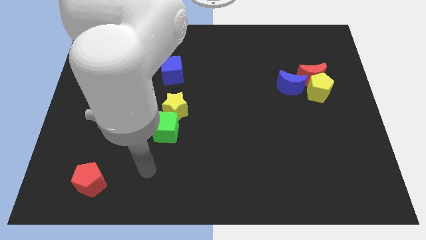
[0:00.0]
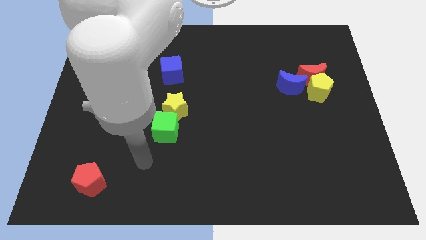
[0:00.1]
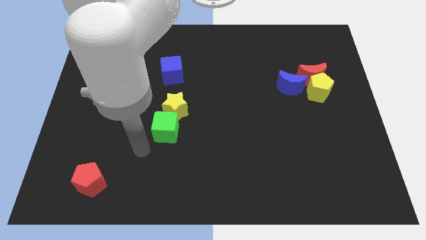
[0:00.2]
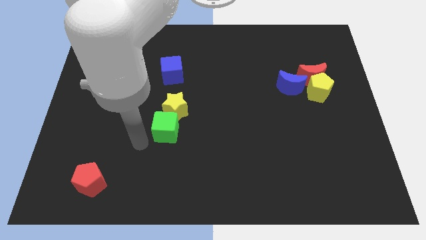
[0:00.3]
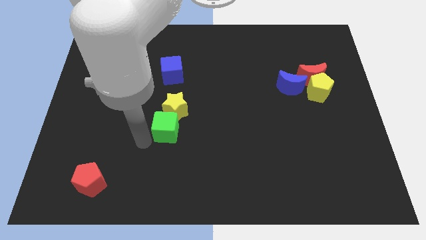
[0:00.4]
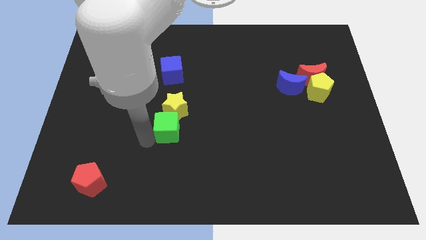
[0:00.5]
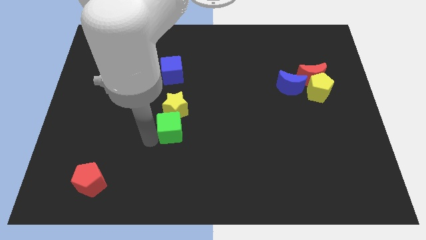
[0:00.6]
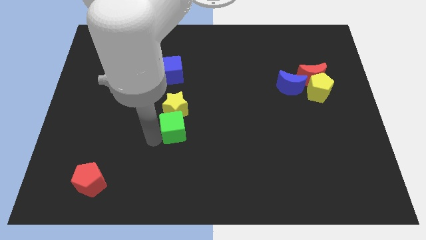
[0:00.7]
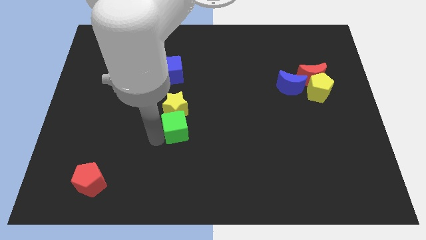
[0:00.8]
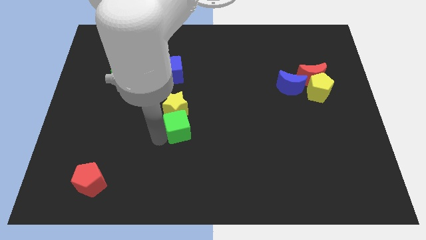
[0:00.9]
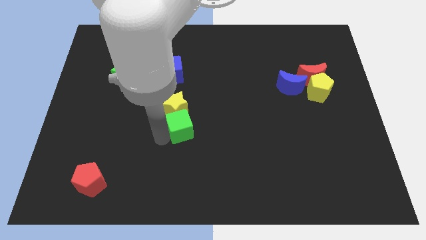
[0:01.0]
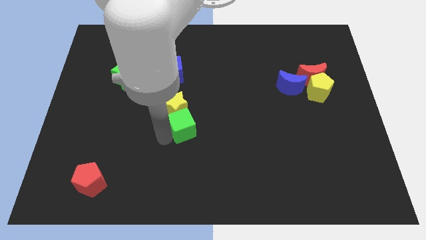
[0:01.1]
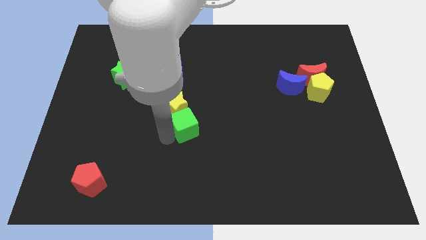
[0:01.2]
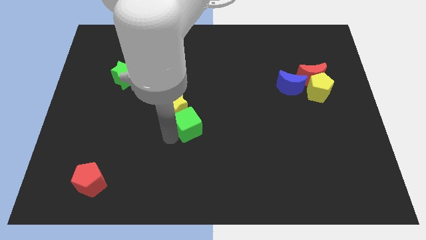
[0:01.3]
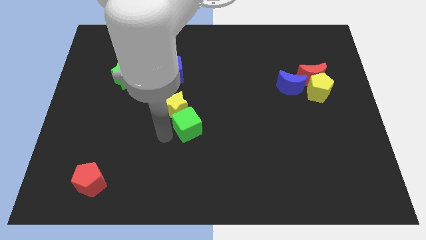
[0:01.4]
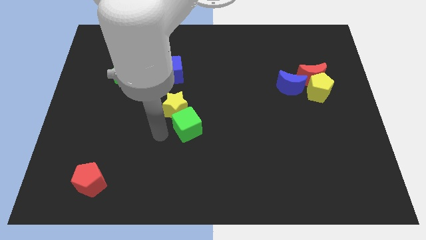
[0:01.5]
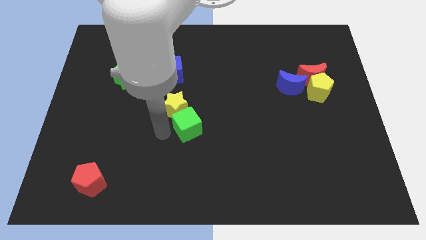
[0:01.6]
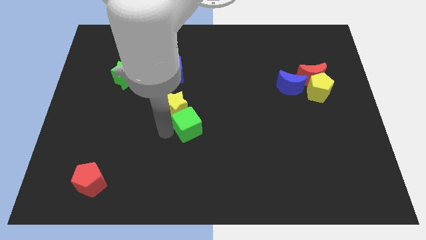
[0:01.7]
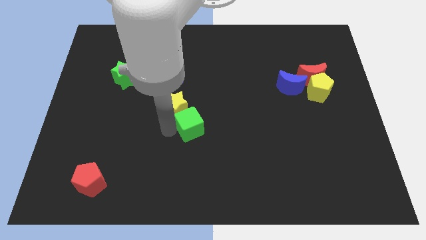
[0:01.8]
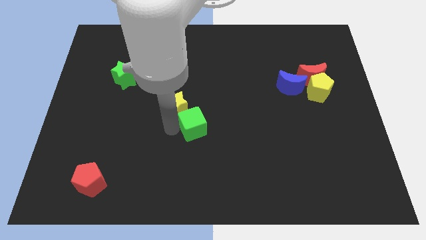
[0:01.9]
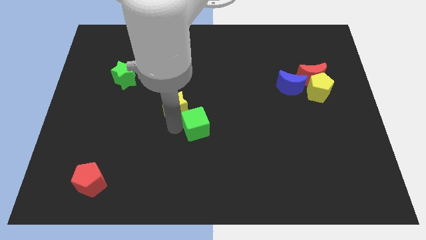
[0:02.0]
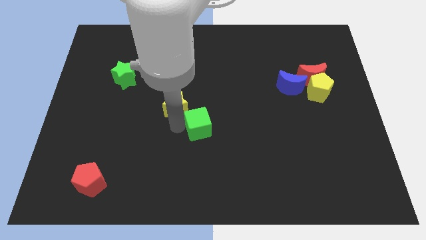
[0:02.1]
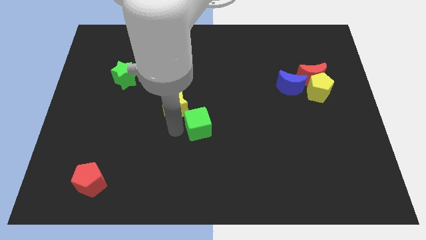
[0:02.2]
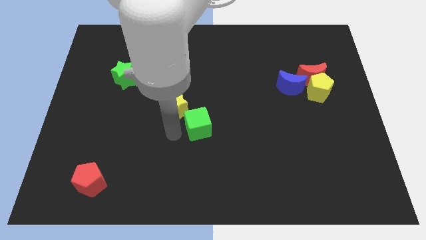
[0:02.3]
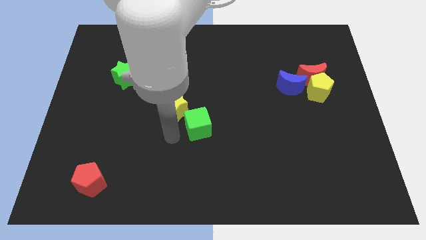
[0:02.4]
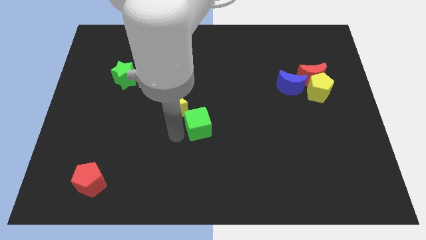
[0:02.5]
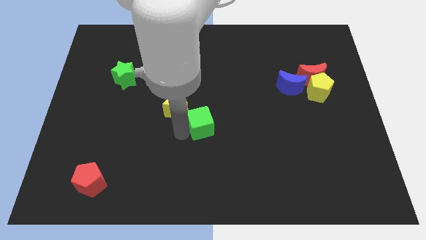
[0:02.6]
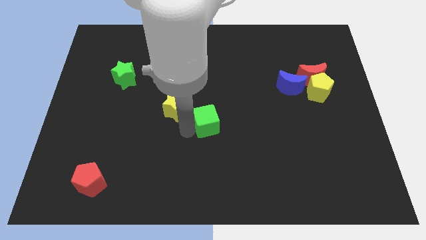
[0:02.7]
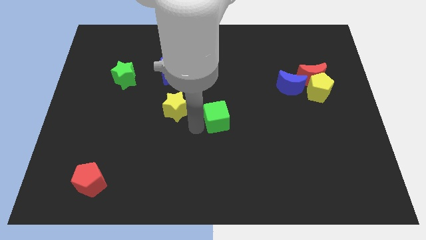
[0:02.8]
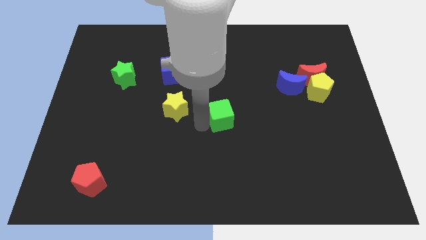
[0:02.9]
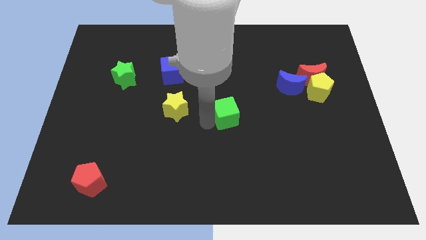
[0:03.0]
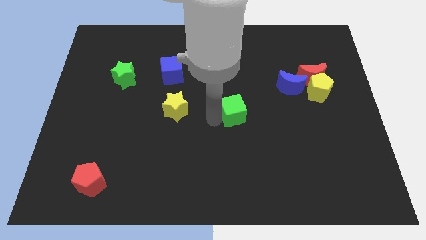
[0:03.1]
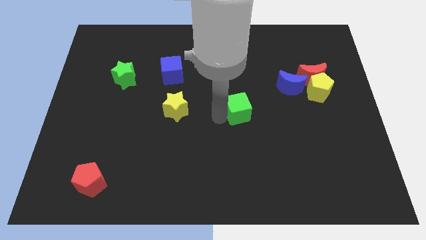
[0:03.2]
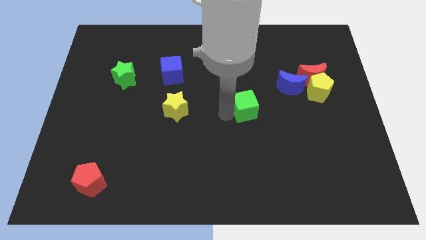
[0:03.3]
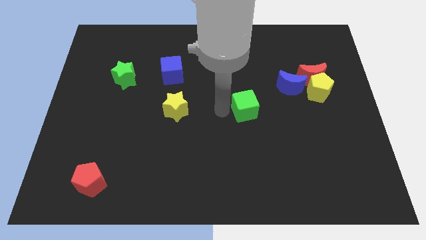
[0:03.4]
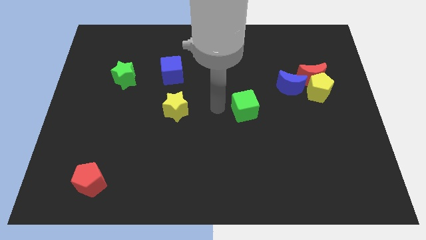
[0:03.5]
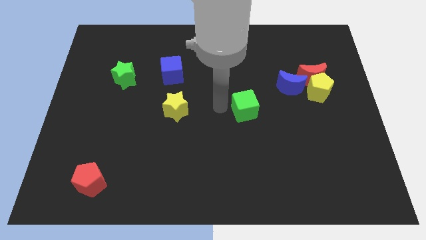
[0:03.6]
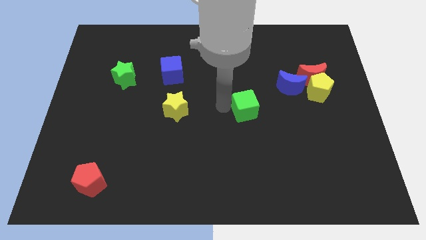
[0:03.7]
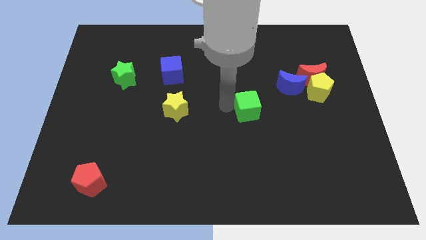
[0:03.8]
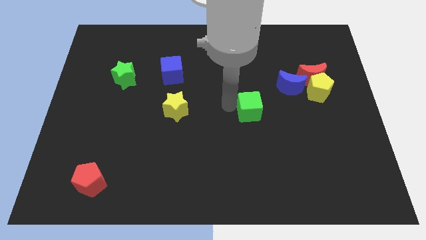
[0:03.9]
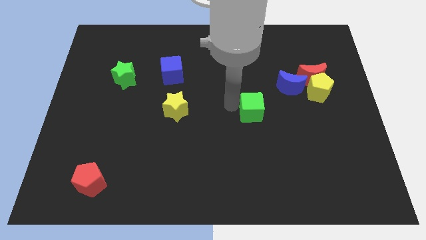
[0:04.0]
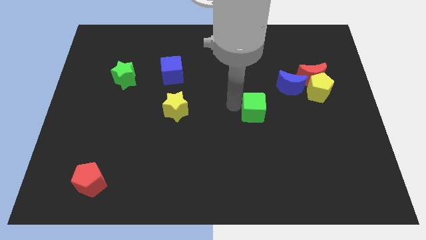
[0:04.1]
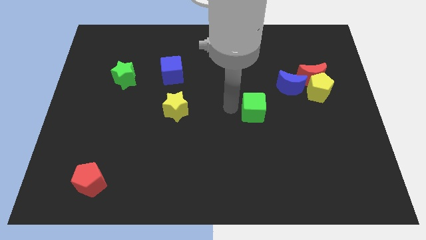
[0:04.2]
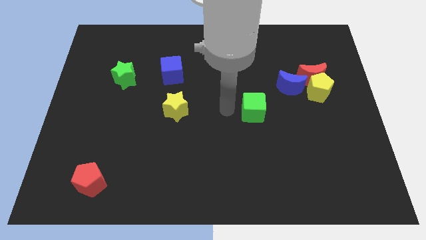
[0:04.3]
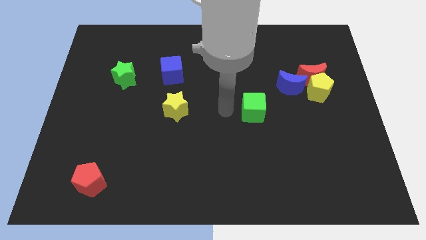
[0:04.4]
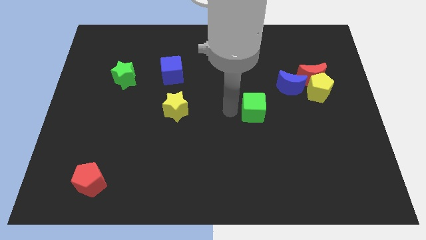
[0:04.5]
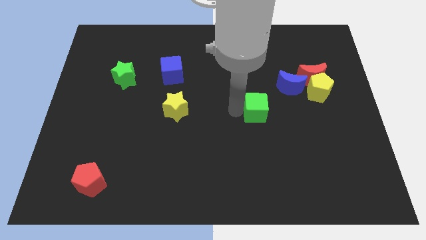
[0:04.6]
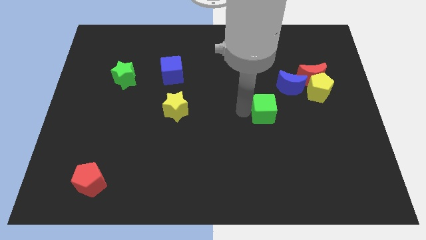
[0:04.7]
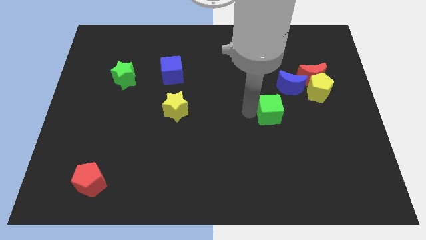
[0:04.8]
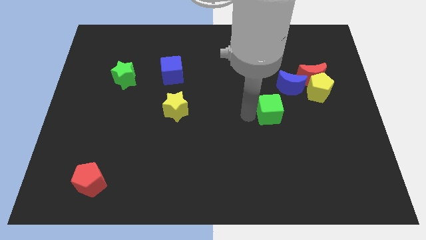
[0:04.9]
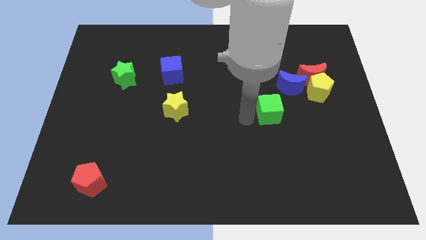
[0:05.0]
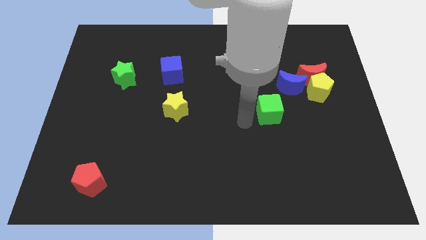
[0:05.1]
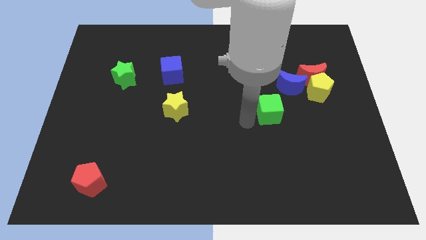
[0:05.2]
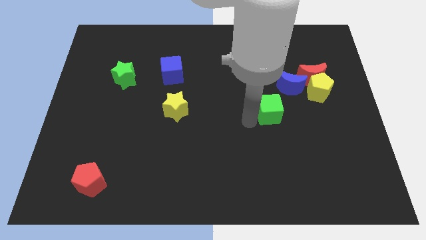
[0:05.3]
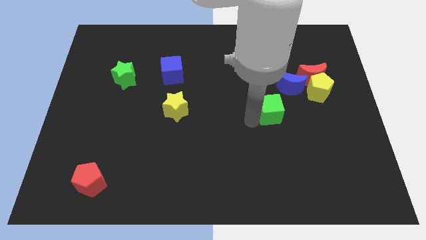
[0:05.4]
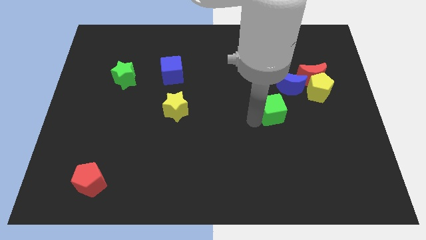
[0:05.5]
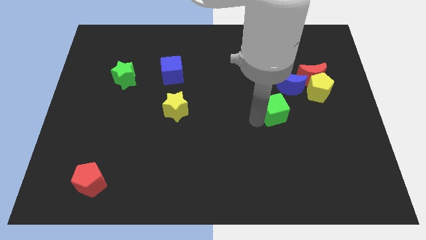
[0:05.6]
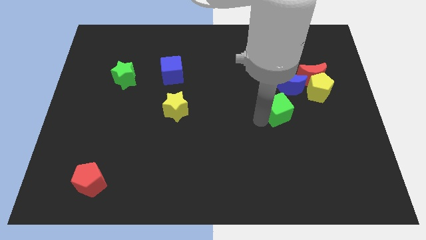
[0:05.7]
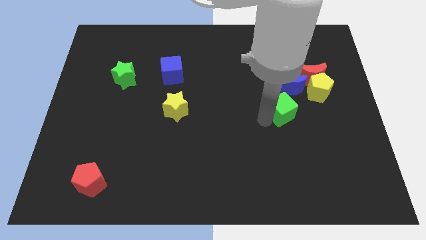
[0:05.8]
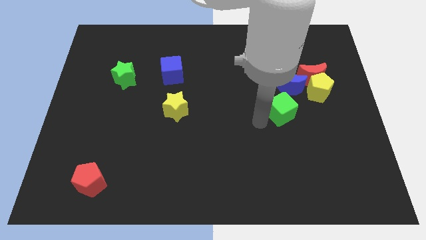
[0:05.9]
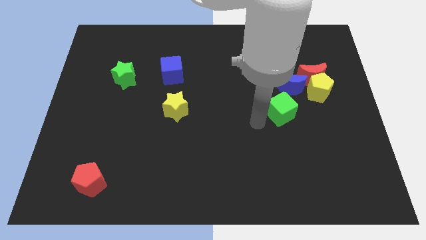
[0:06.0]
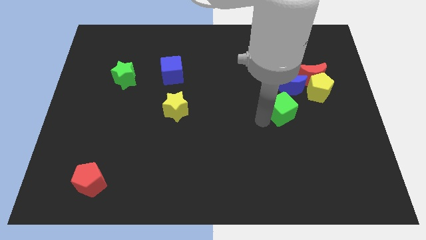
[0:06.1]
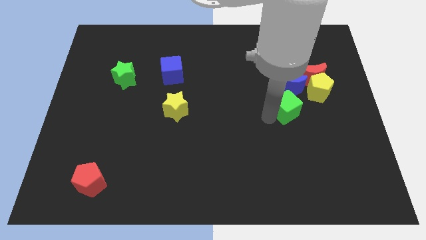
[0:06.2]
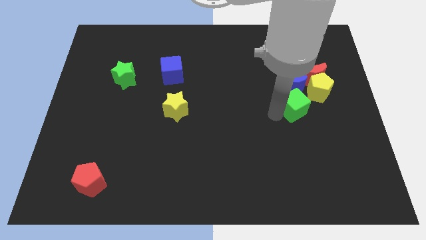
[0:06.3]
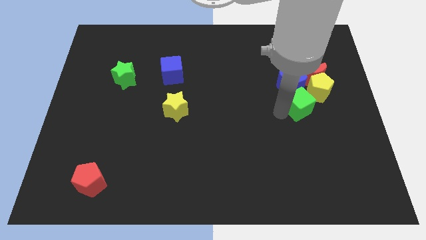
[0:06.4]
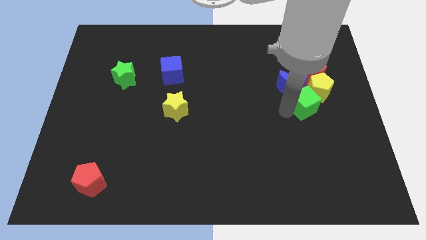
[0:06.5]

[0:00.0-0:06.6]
slide the green cube close to the yellow pentagon
